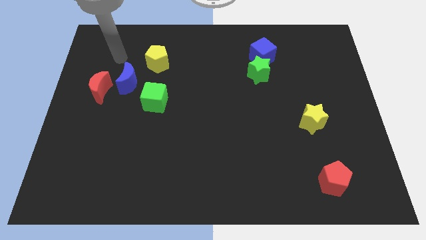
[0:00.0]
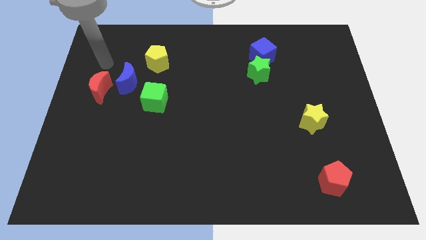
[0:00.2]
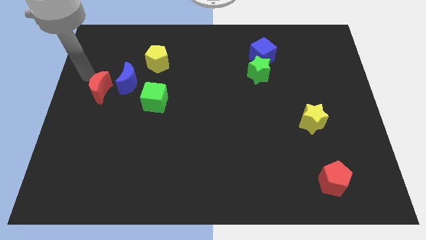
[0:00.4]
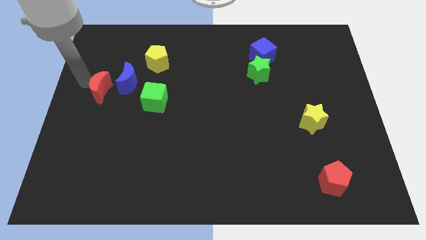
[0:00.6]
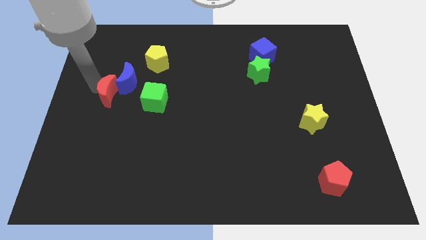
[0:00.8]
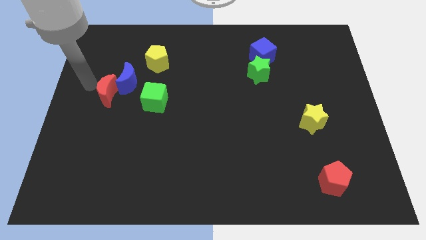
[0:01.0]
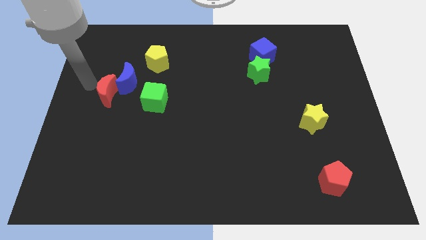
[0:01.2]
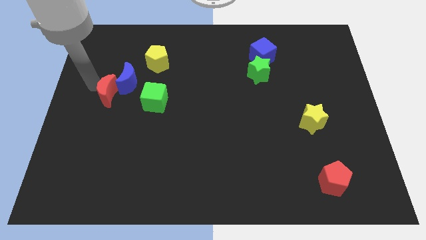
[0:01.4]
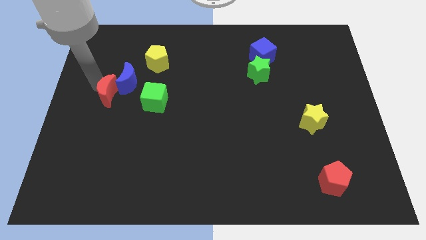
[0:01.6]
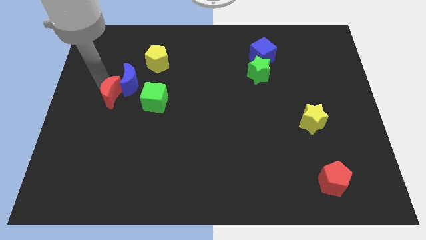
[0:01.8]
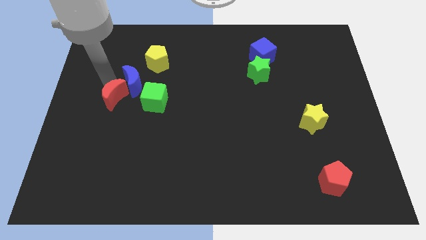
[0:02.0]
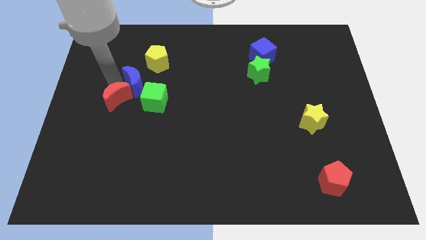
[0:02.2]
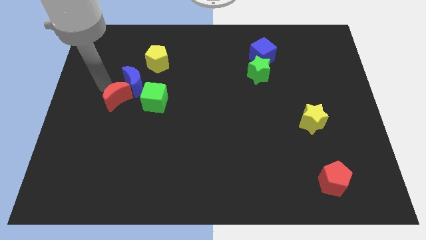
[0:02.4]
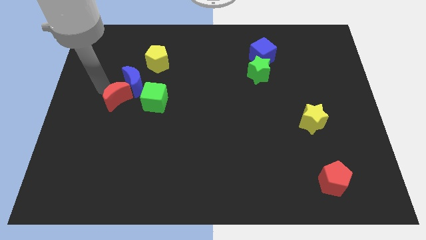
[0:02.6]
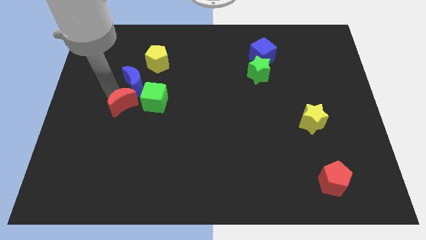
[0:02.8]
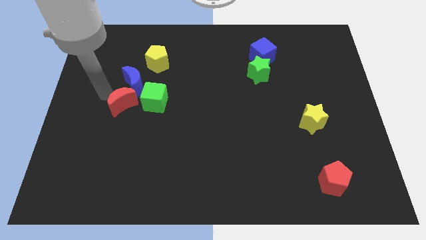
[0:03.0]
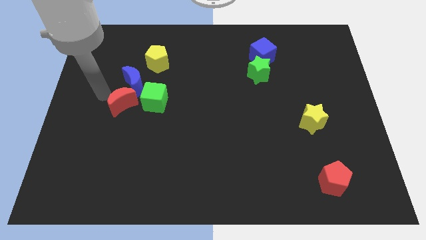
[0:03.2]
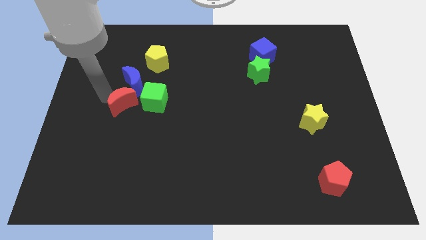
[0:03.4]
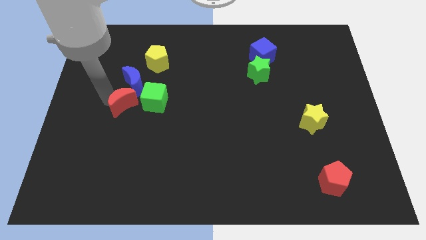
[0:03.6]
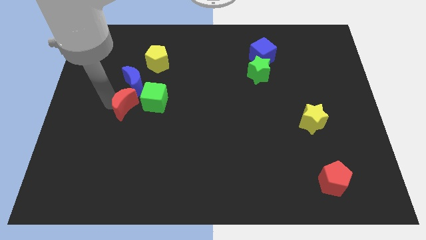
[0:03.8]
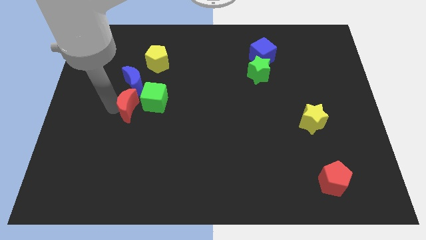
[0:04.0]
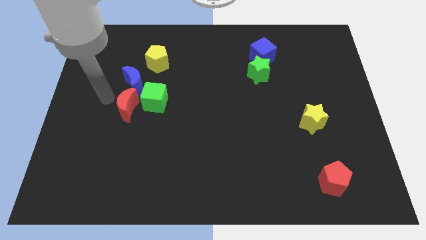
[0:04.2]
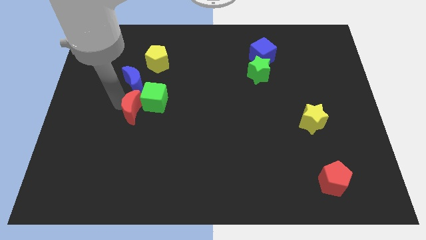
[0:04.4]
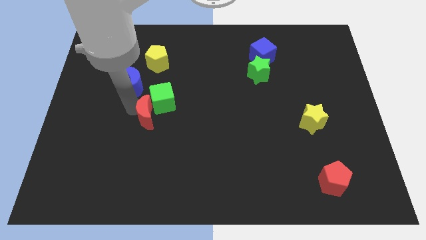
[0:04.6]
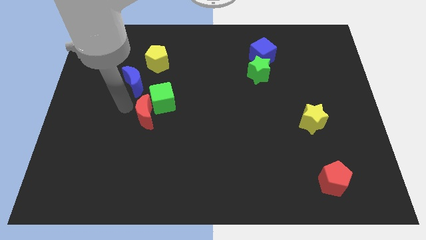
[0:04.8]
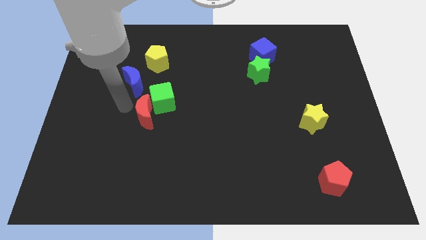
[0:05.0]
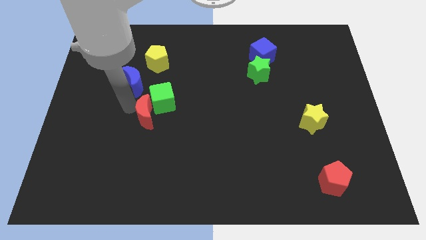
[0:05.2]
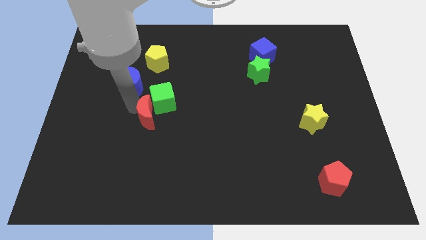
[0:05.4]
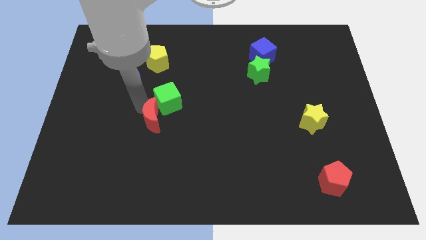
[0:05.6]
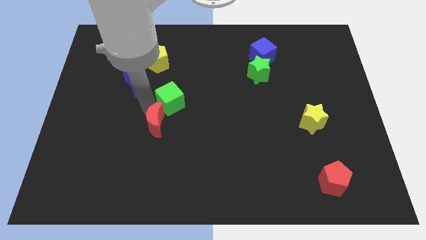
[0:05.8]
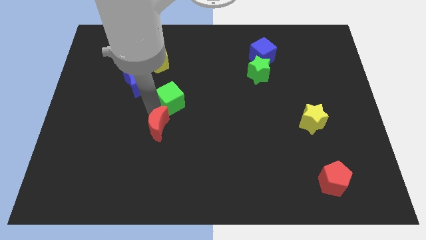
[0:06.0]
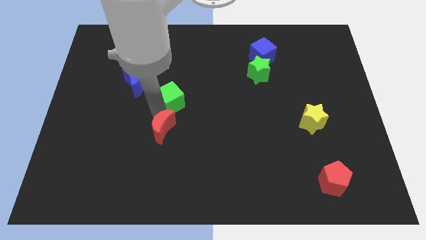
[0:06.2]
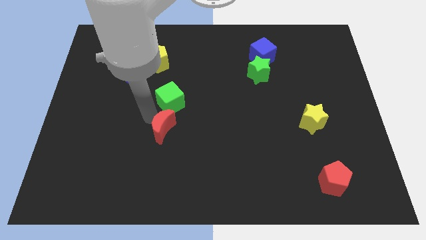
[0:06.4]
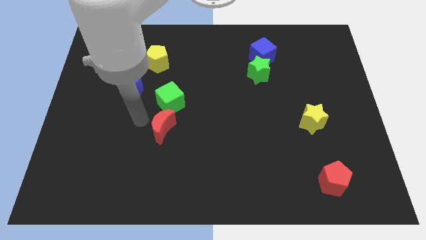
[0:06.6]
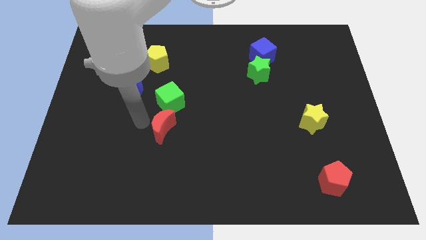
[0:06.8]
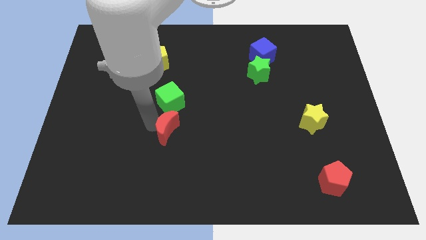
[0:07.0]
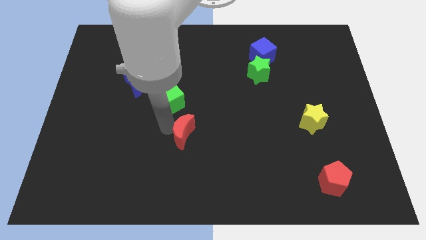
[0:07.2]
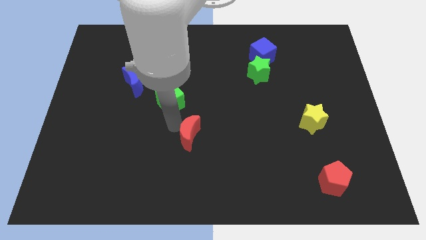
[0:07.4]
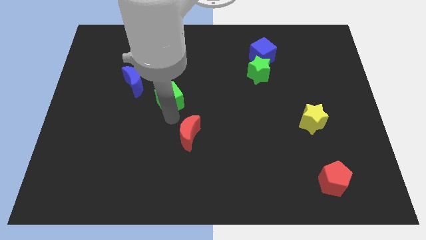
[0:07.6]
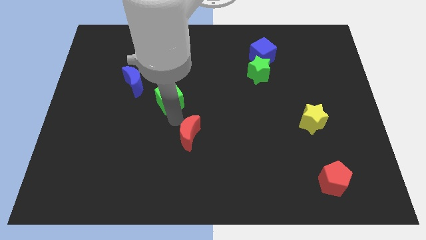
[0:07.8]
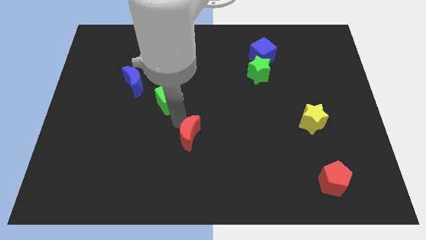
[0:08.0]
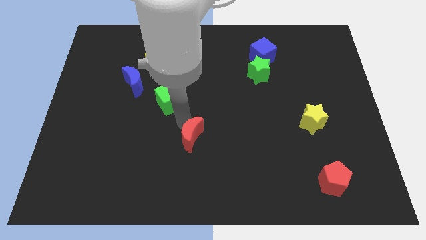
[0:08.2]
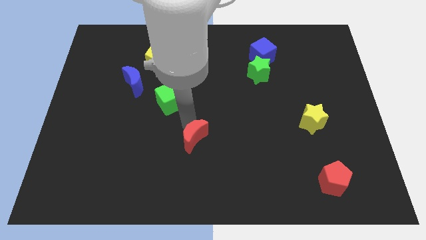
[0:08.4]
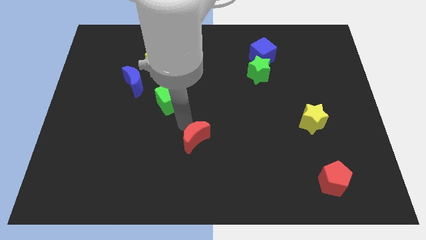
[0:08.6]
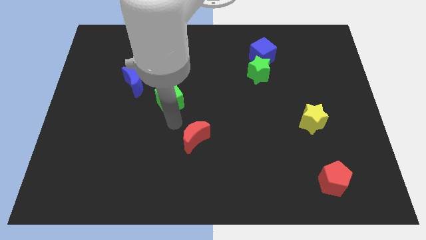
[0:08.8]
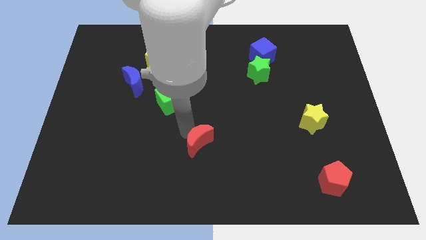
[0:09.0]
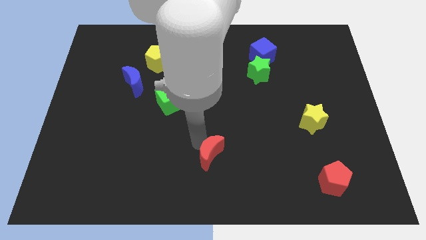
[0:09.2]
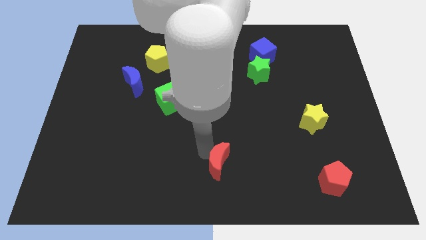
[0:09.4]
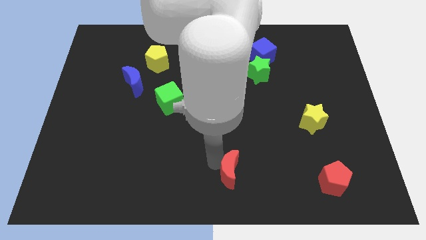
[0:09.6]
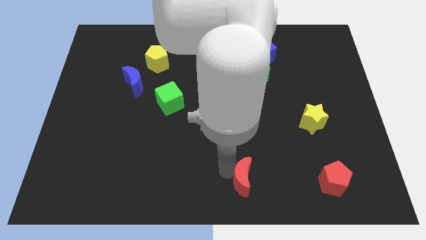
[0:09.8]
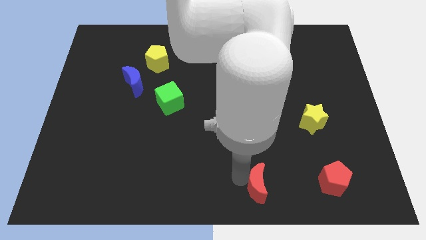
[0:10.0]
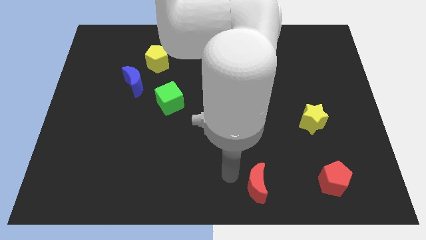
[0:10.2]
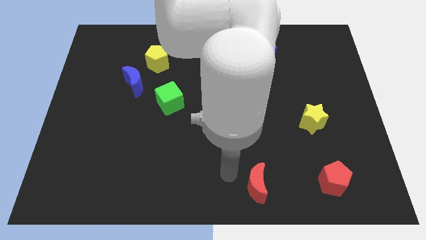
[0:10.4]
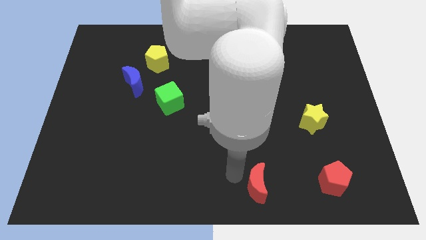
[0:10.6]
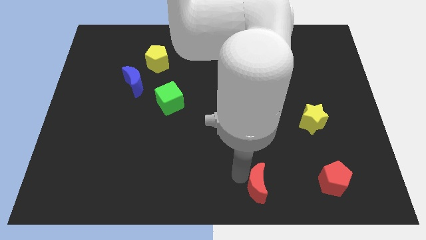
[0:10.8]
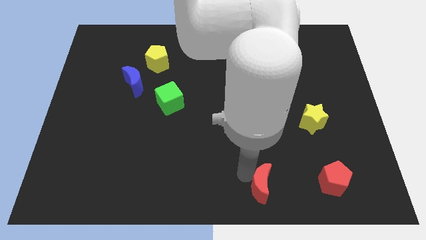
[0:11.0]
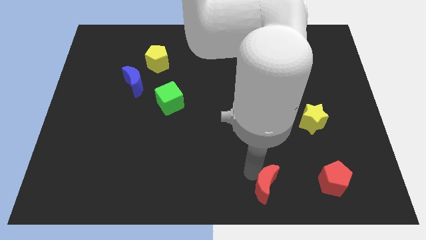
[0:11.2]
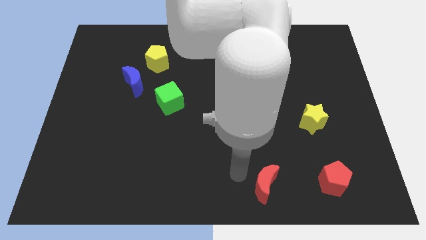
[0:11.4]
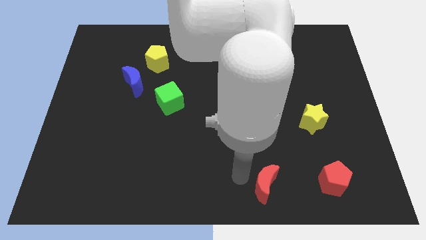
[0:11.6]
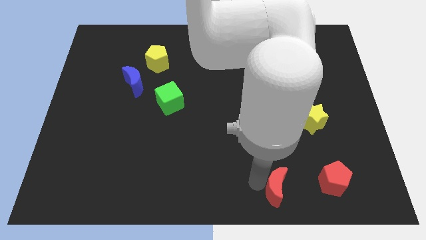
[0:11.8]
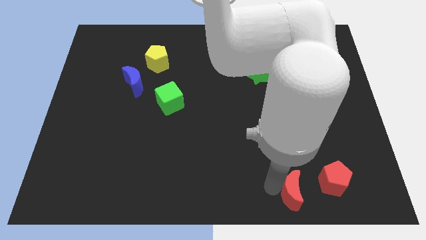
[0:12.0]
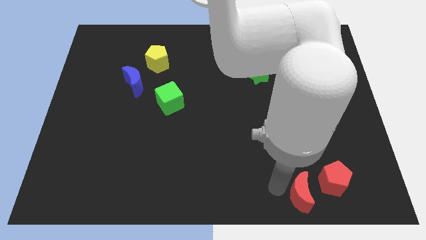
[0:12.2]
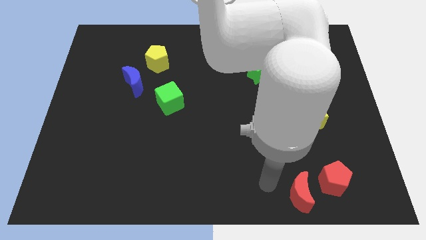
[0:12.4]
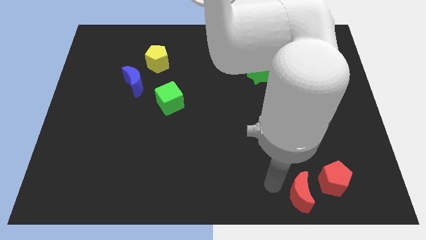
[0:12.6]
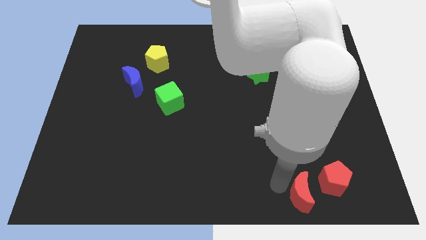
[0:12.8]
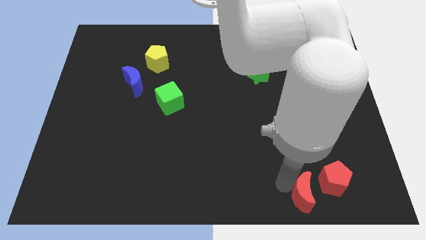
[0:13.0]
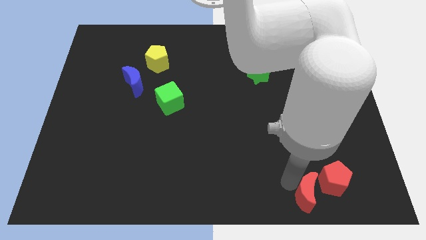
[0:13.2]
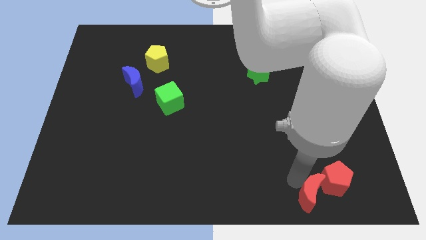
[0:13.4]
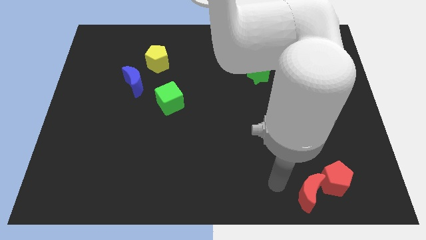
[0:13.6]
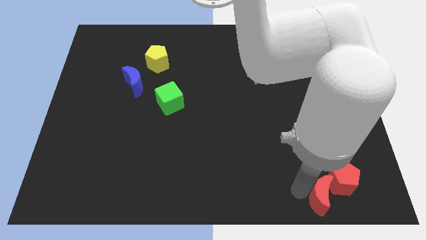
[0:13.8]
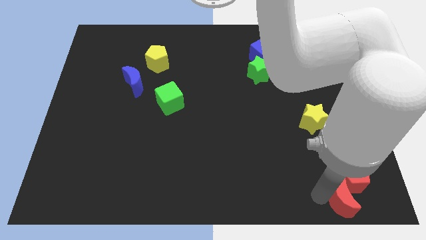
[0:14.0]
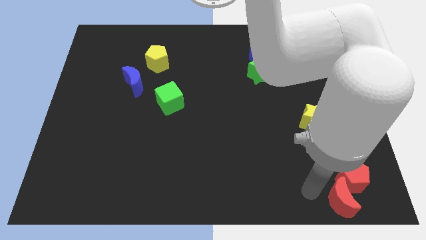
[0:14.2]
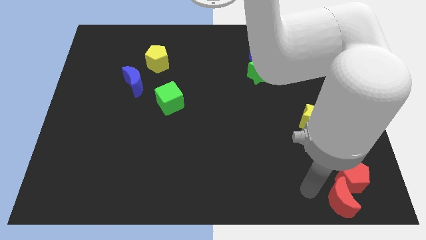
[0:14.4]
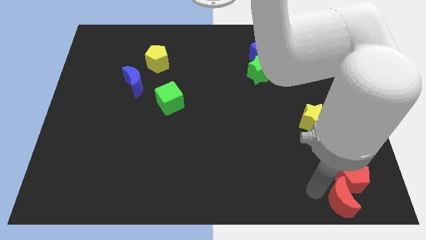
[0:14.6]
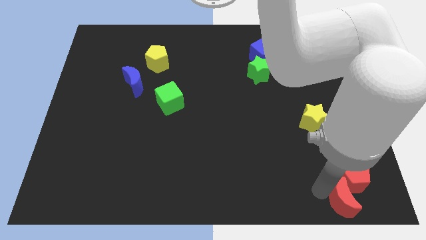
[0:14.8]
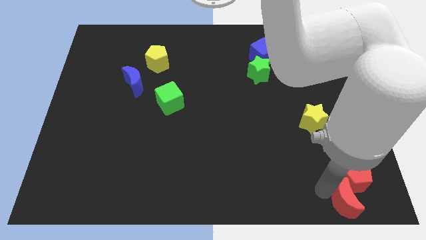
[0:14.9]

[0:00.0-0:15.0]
push the red moon to the bottom right
